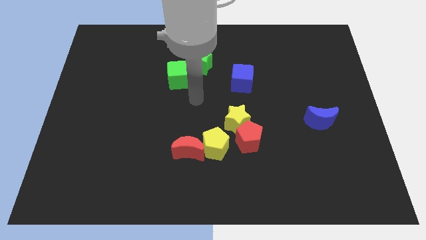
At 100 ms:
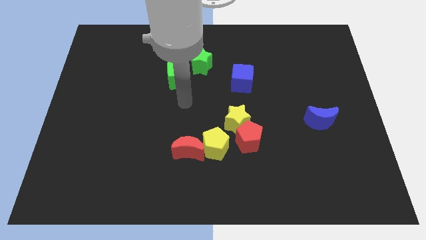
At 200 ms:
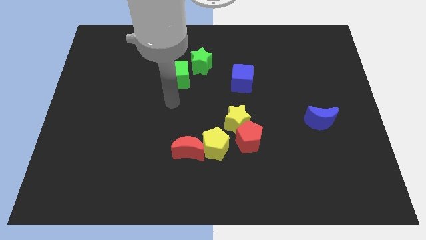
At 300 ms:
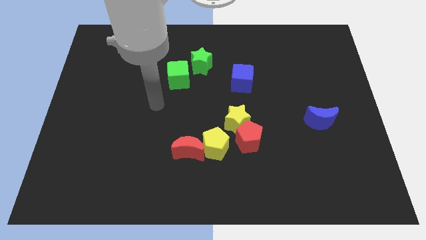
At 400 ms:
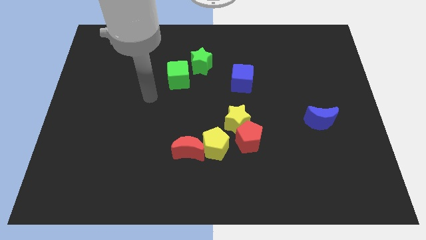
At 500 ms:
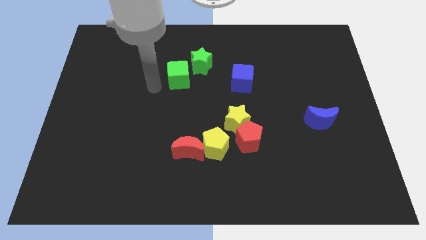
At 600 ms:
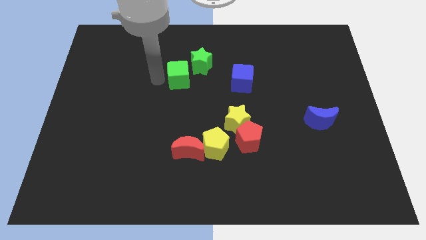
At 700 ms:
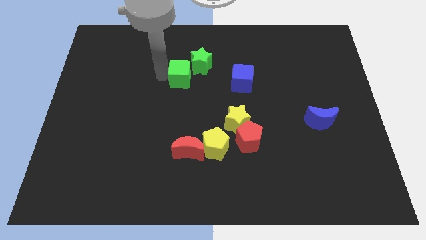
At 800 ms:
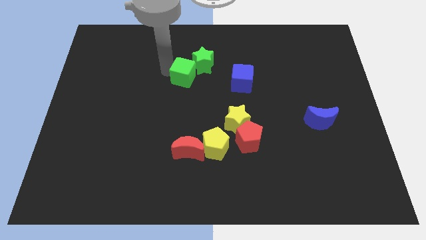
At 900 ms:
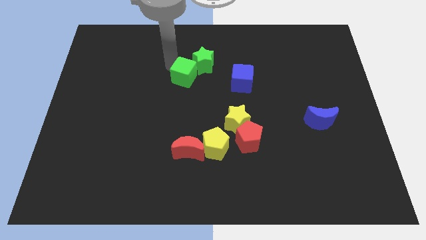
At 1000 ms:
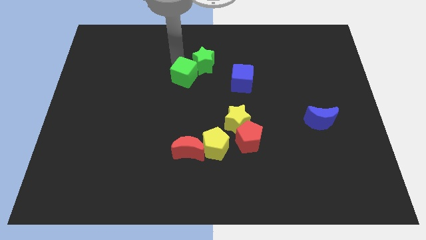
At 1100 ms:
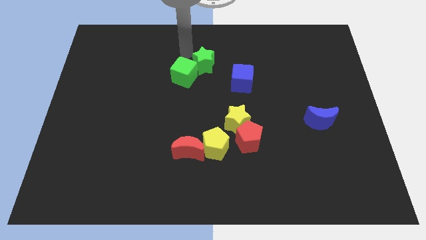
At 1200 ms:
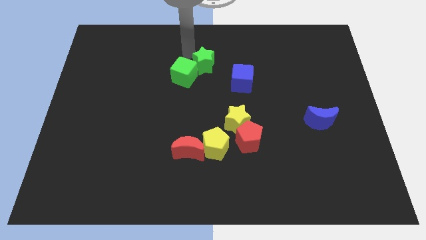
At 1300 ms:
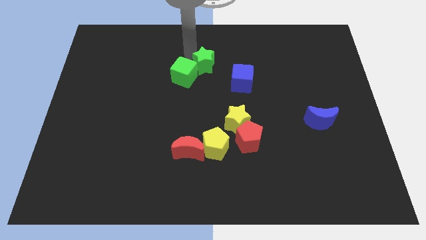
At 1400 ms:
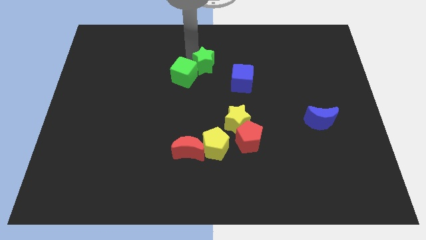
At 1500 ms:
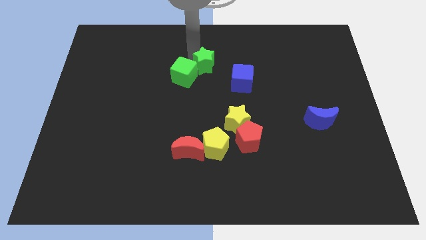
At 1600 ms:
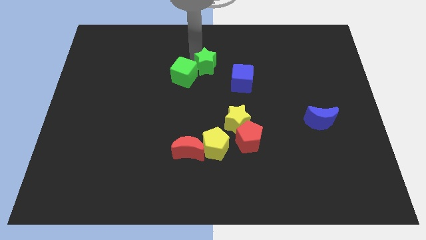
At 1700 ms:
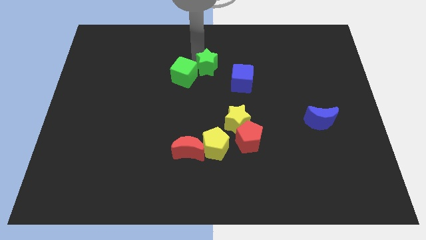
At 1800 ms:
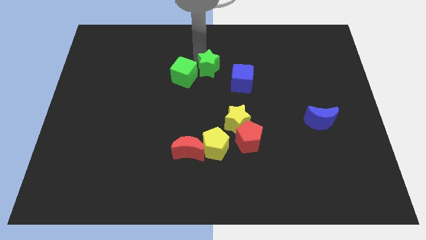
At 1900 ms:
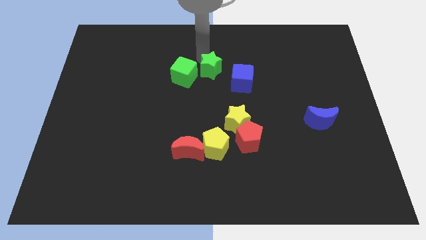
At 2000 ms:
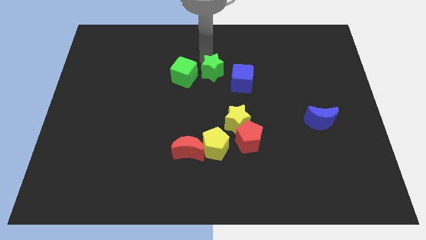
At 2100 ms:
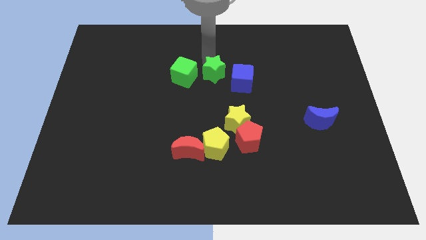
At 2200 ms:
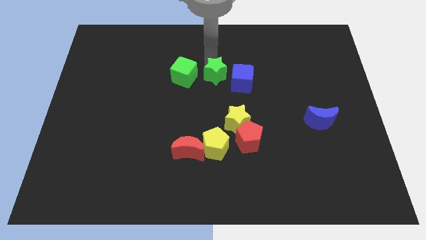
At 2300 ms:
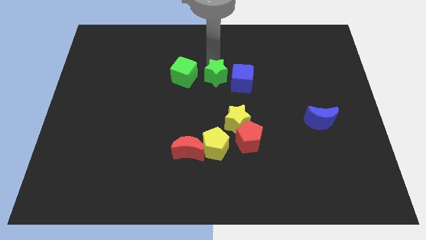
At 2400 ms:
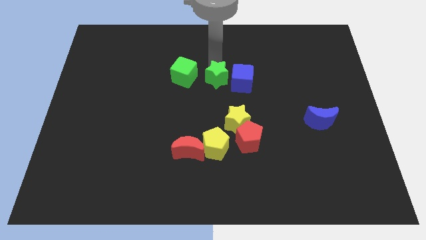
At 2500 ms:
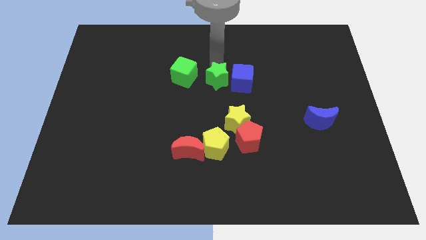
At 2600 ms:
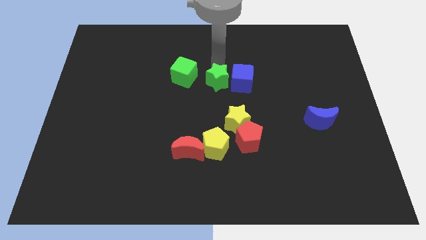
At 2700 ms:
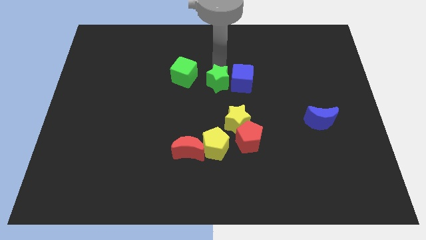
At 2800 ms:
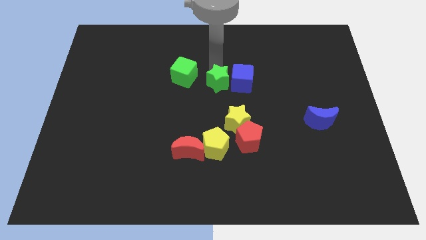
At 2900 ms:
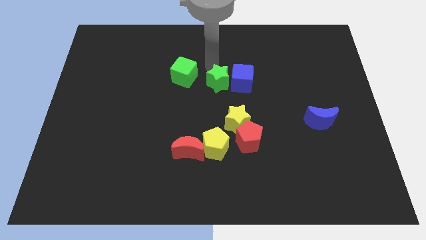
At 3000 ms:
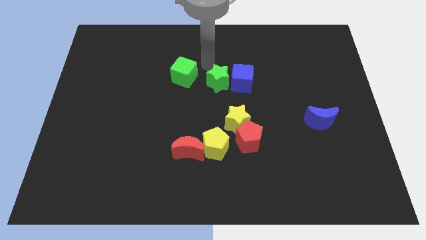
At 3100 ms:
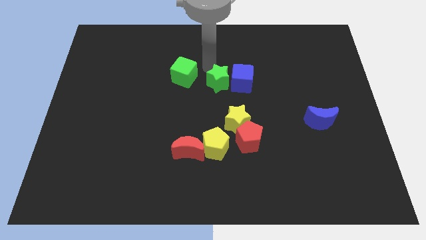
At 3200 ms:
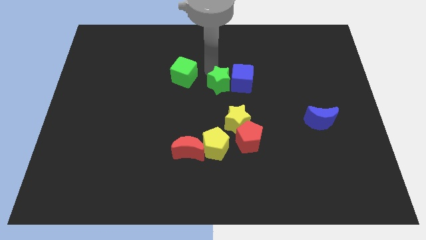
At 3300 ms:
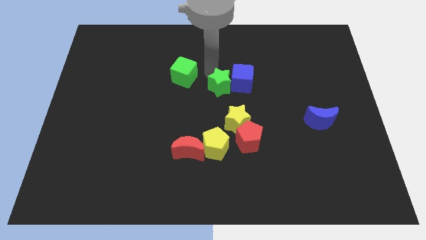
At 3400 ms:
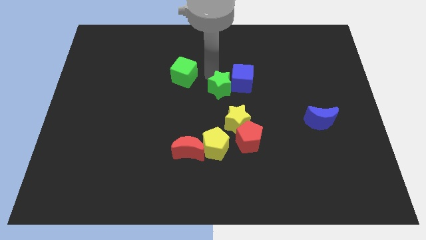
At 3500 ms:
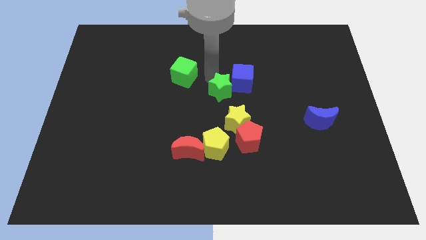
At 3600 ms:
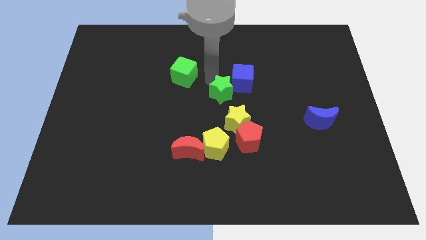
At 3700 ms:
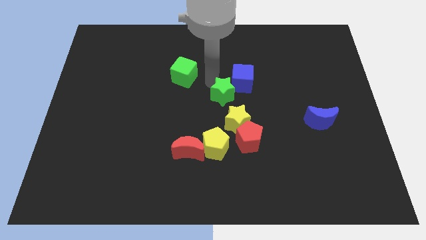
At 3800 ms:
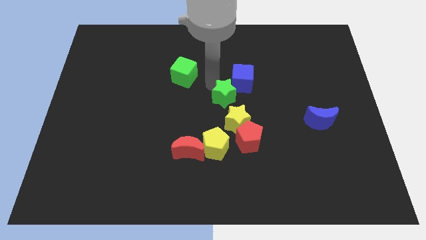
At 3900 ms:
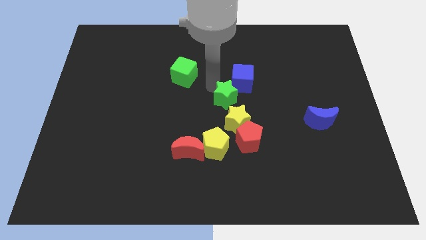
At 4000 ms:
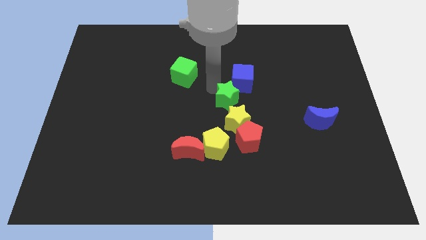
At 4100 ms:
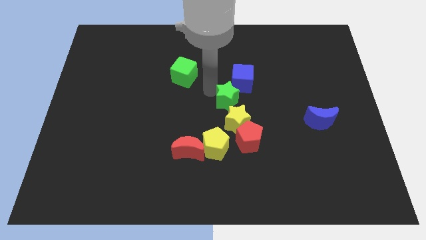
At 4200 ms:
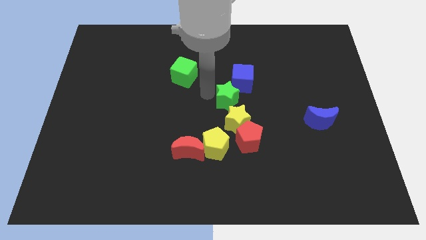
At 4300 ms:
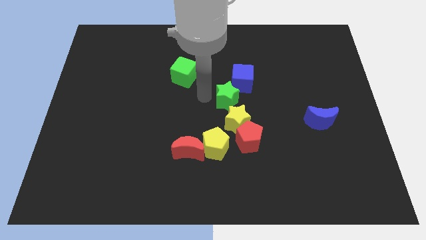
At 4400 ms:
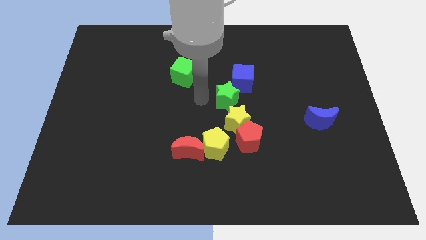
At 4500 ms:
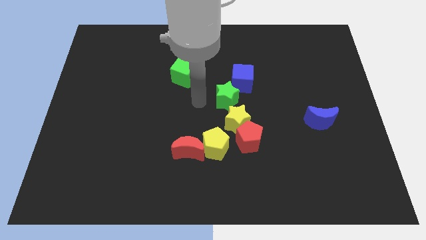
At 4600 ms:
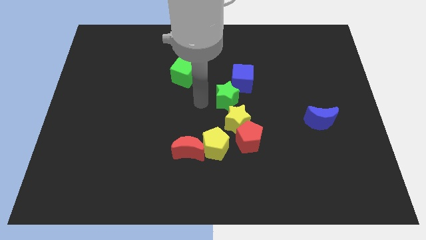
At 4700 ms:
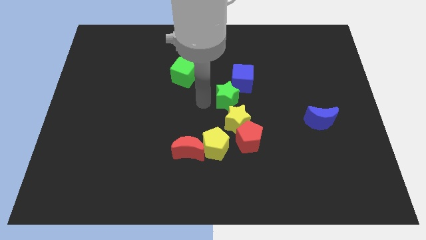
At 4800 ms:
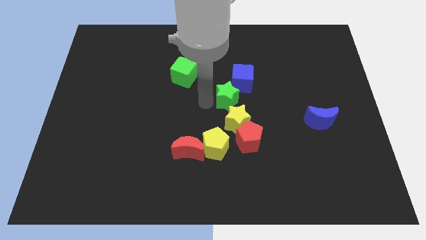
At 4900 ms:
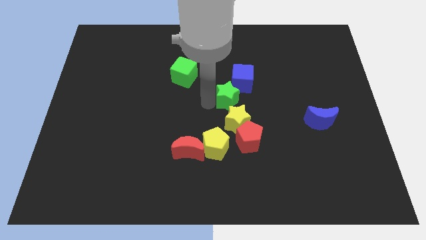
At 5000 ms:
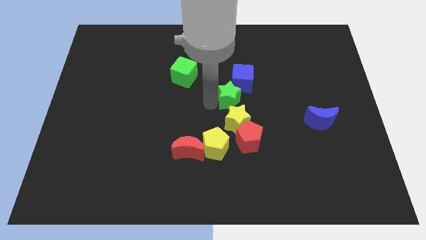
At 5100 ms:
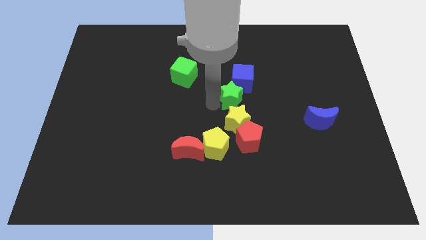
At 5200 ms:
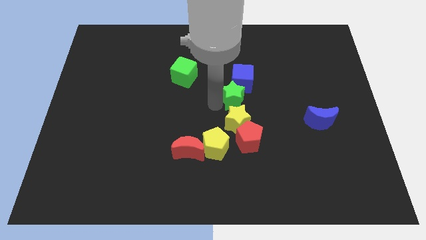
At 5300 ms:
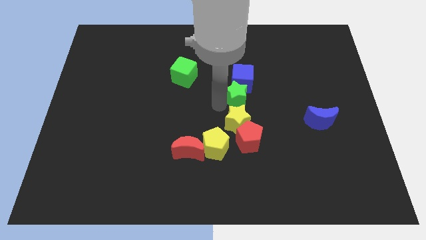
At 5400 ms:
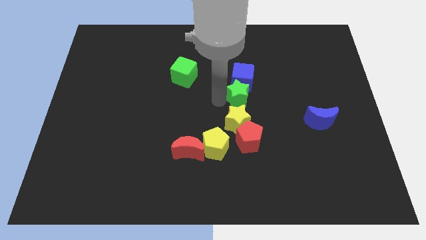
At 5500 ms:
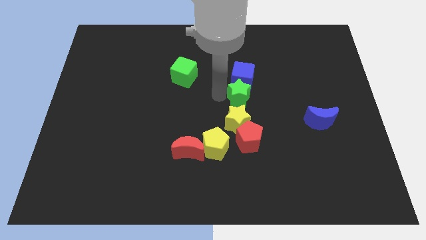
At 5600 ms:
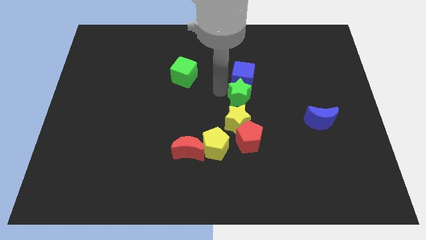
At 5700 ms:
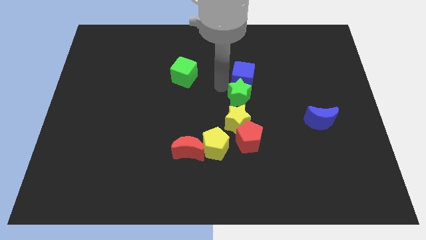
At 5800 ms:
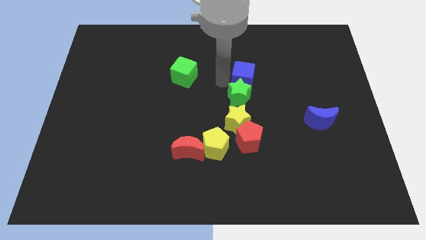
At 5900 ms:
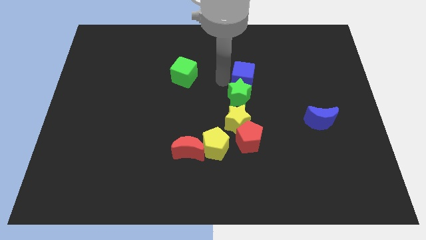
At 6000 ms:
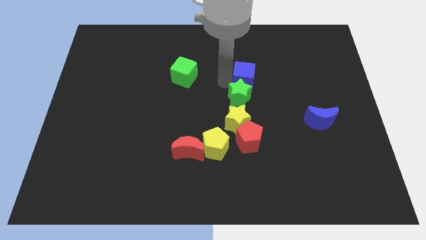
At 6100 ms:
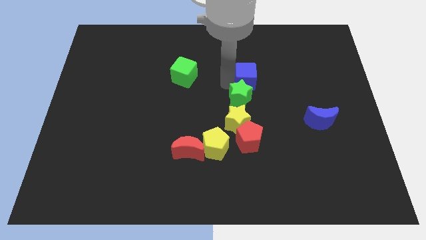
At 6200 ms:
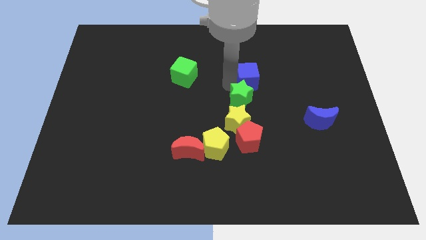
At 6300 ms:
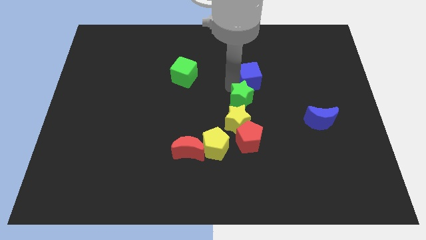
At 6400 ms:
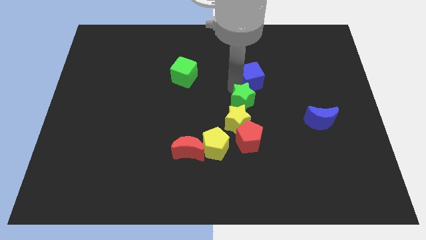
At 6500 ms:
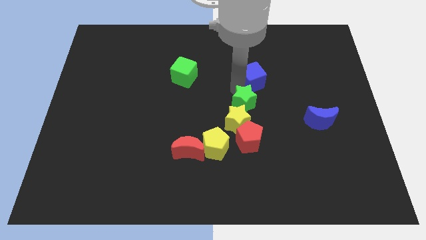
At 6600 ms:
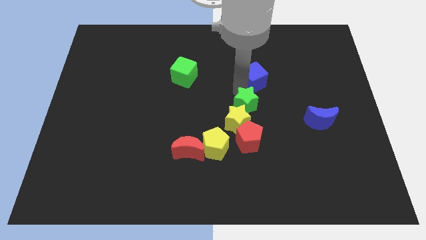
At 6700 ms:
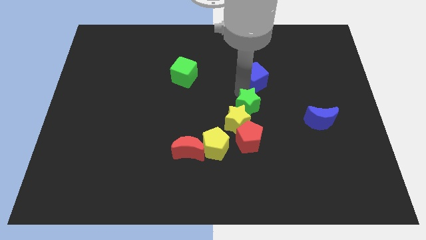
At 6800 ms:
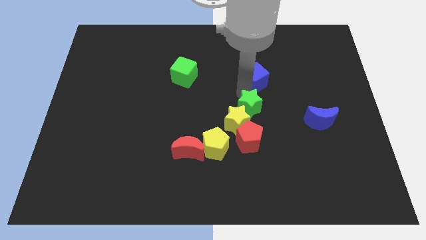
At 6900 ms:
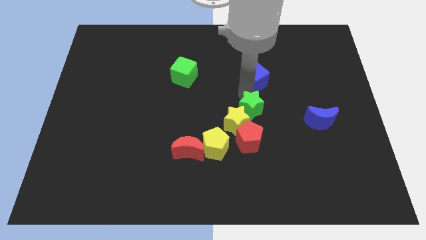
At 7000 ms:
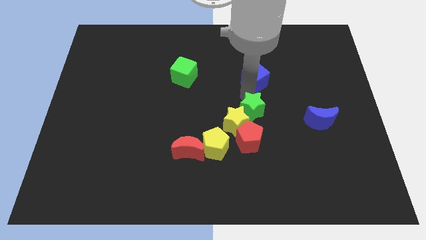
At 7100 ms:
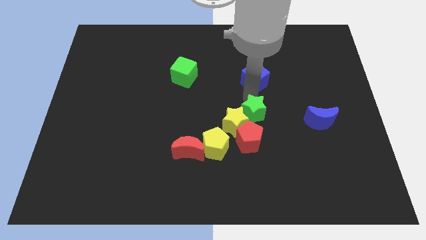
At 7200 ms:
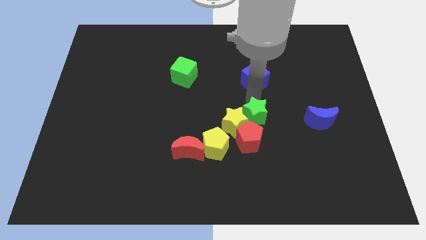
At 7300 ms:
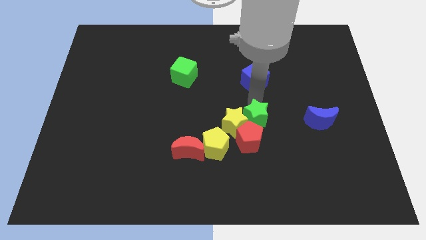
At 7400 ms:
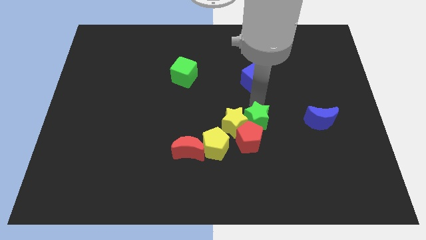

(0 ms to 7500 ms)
push the green star next to the red pentagon
